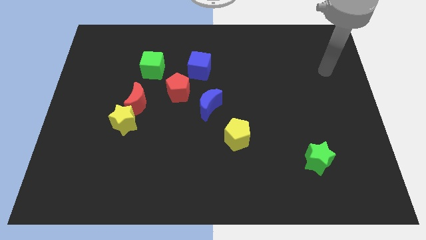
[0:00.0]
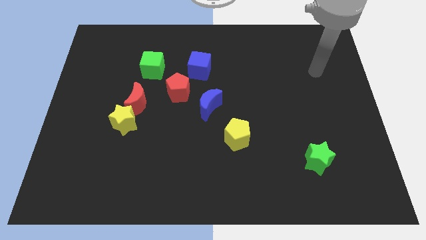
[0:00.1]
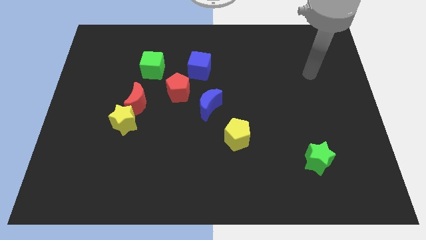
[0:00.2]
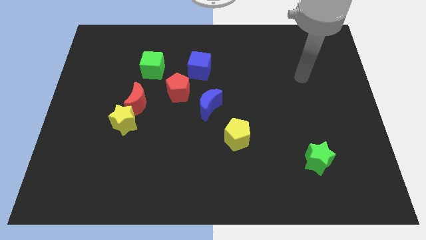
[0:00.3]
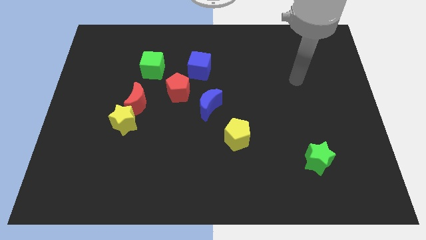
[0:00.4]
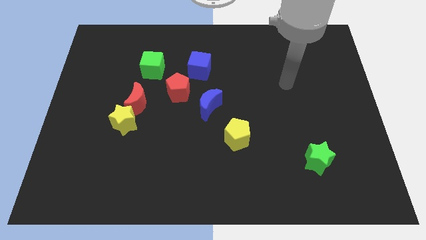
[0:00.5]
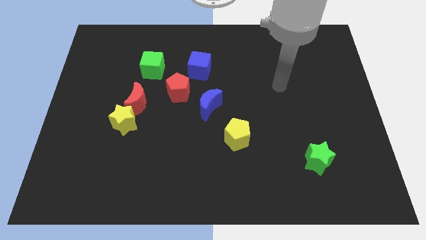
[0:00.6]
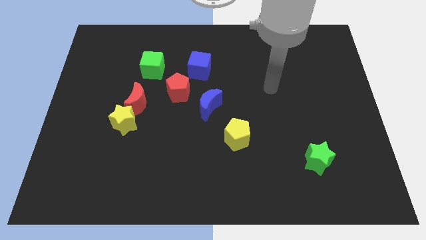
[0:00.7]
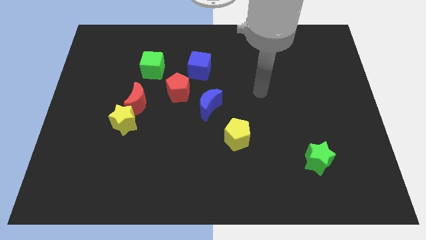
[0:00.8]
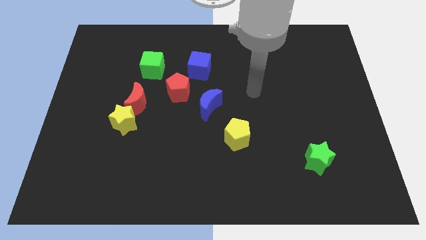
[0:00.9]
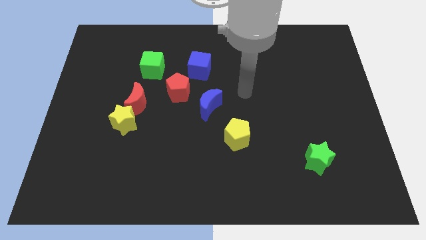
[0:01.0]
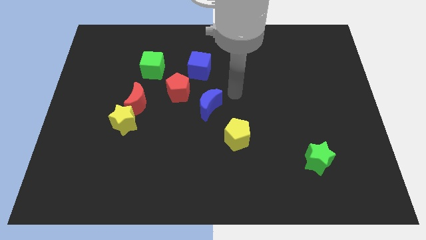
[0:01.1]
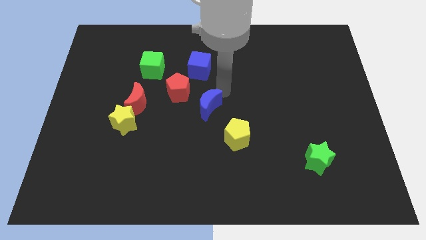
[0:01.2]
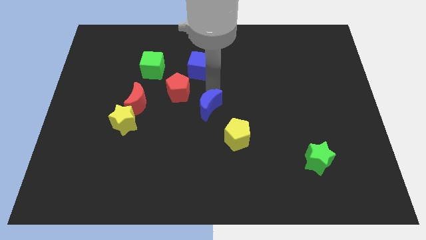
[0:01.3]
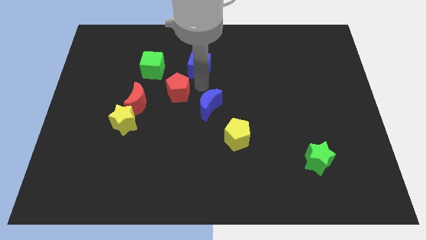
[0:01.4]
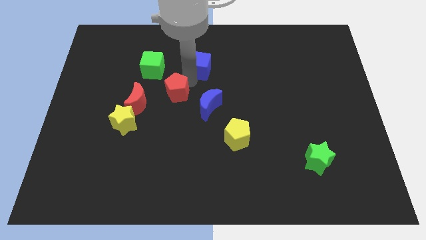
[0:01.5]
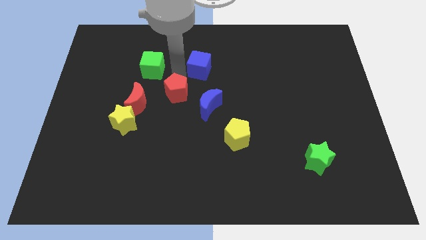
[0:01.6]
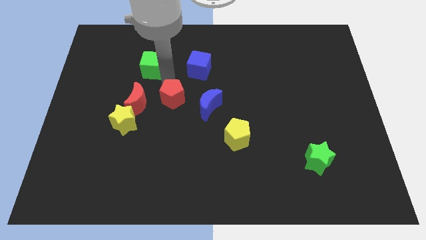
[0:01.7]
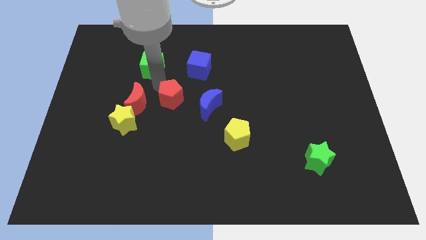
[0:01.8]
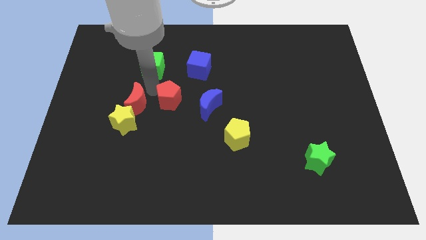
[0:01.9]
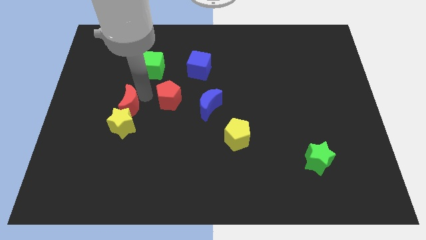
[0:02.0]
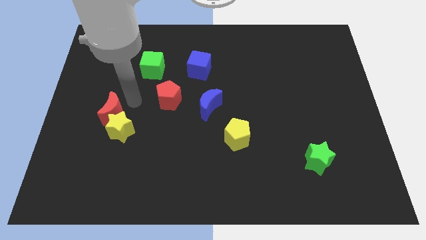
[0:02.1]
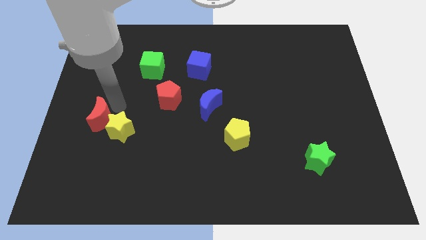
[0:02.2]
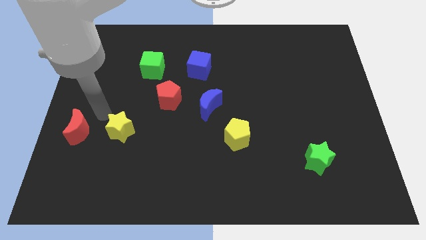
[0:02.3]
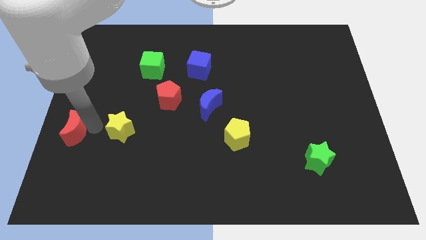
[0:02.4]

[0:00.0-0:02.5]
move the yellow star away from the red moon

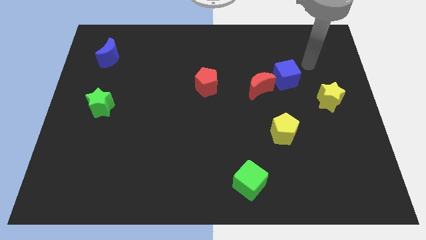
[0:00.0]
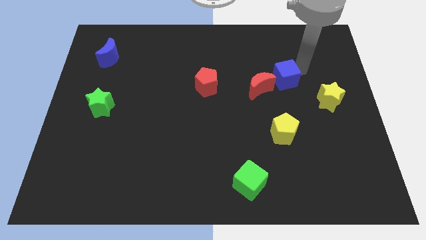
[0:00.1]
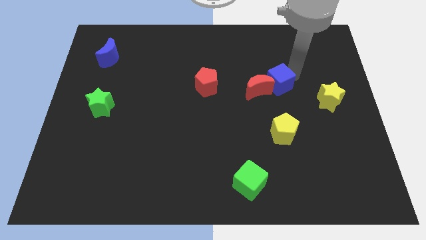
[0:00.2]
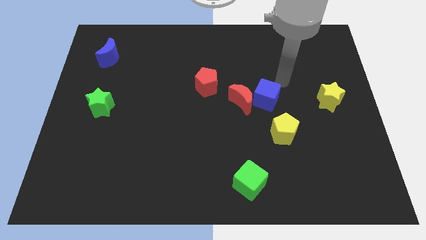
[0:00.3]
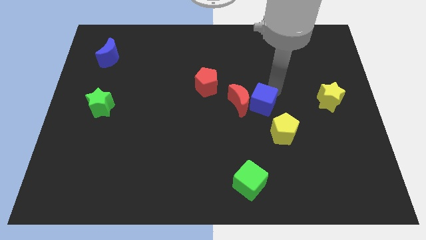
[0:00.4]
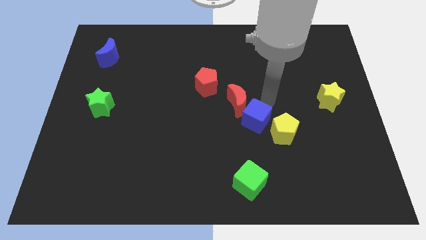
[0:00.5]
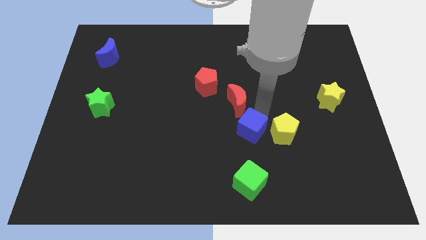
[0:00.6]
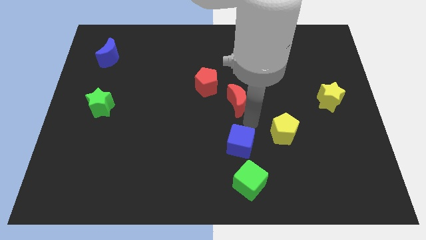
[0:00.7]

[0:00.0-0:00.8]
separate the red moon from the blue cube

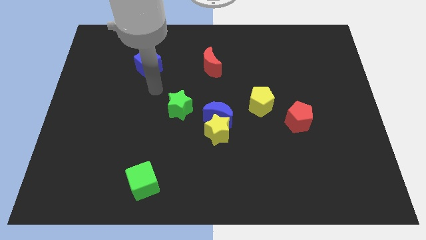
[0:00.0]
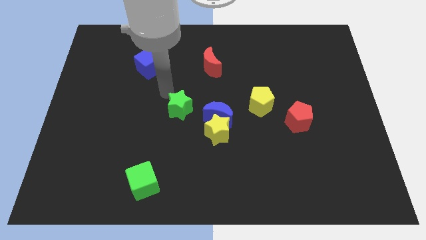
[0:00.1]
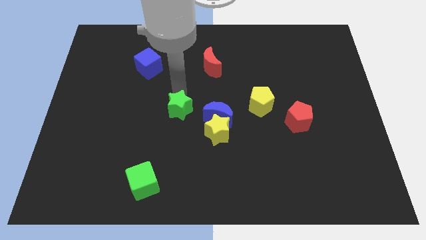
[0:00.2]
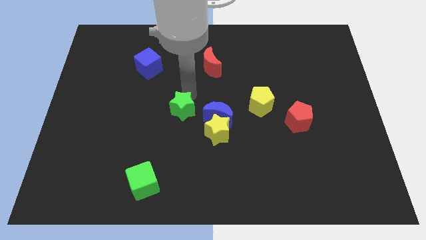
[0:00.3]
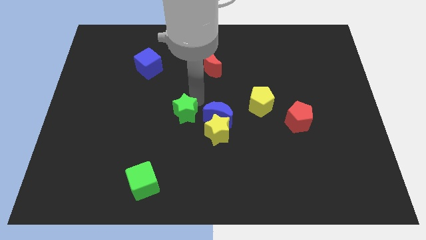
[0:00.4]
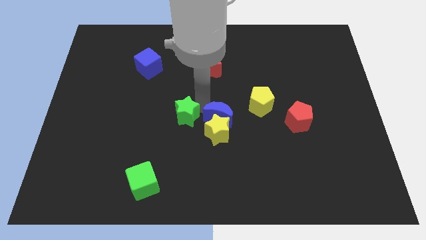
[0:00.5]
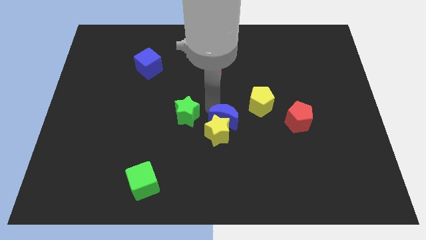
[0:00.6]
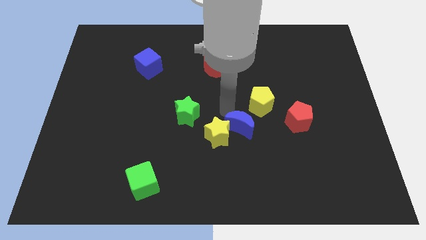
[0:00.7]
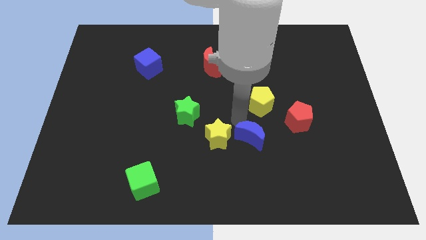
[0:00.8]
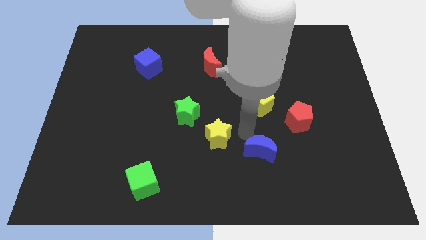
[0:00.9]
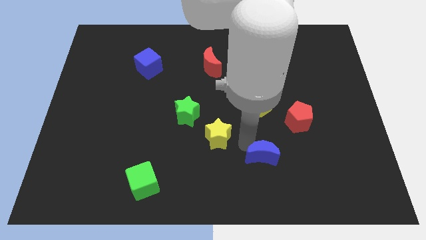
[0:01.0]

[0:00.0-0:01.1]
move the yellow star away from the blue moon

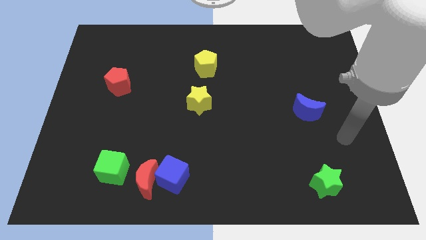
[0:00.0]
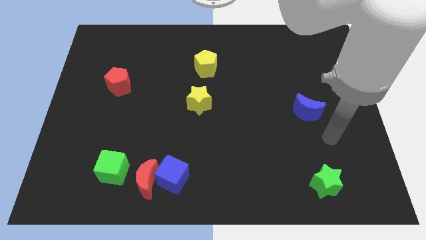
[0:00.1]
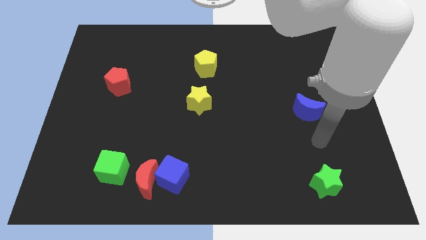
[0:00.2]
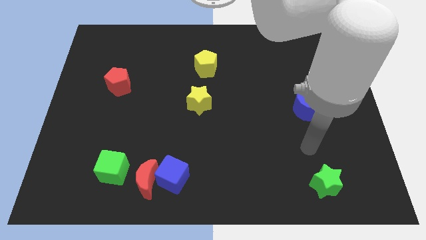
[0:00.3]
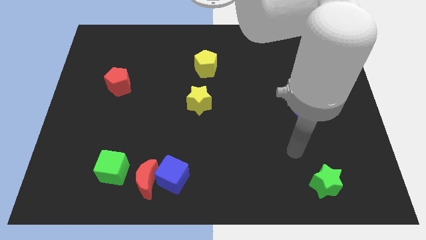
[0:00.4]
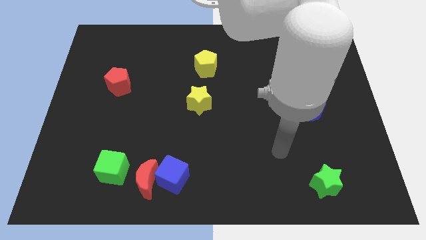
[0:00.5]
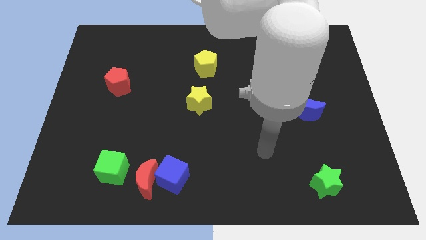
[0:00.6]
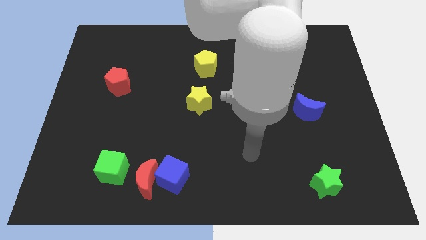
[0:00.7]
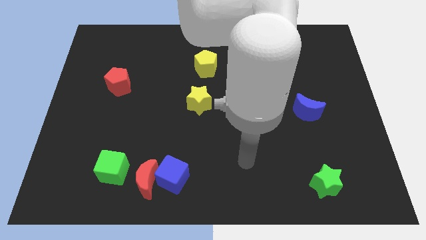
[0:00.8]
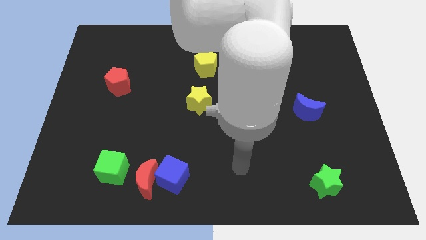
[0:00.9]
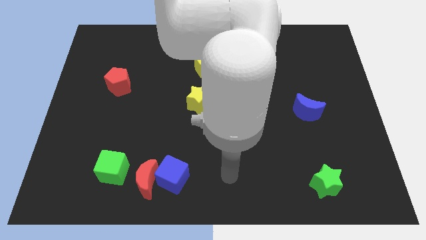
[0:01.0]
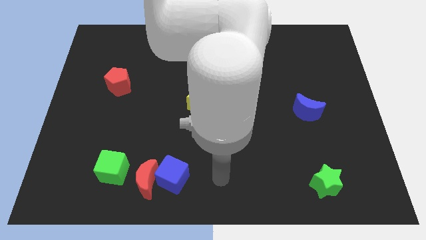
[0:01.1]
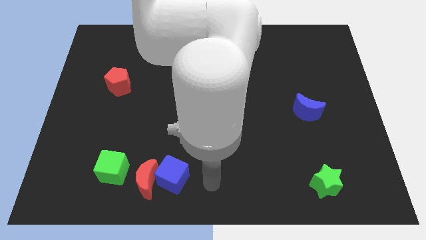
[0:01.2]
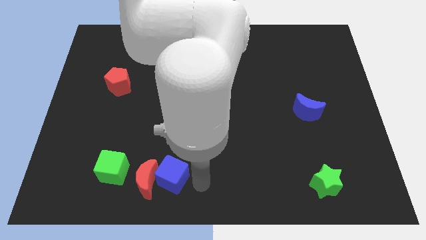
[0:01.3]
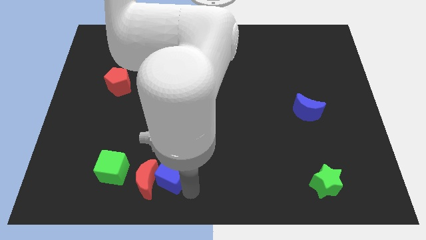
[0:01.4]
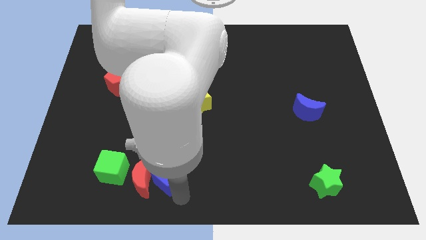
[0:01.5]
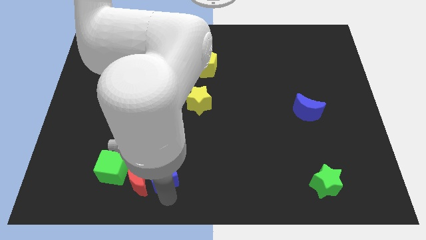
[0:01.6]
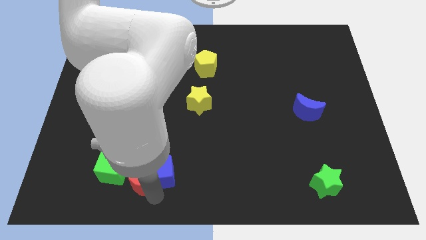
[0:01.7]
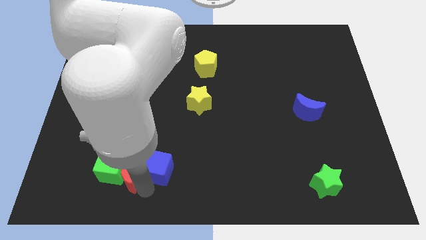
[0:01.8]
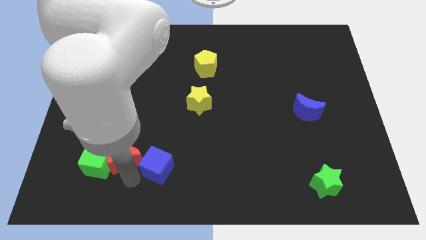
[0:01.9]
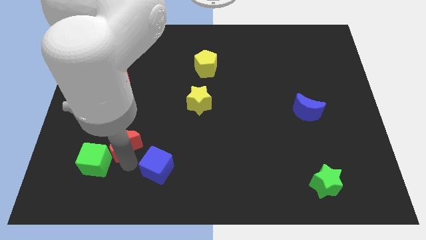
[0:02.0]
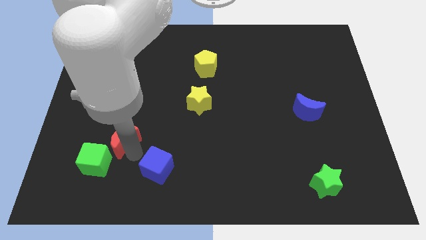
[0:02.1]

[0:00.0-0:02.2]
pull the blue cube apart from the red moon

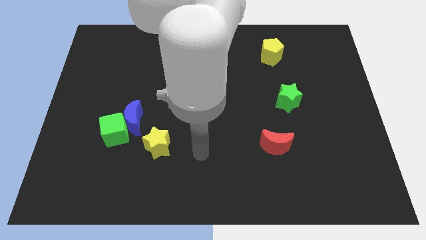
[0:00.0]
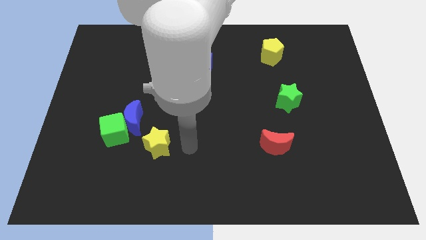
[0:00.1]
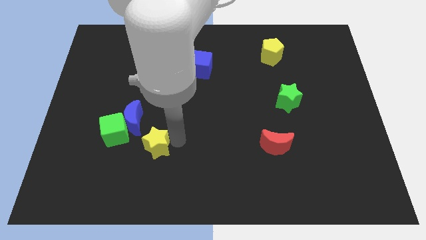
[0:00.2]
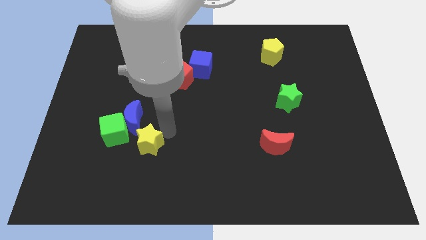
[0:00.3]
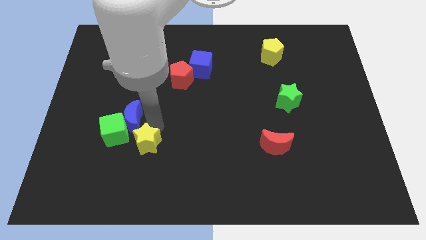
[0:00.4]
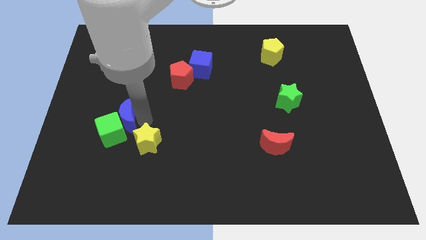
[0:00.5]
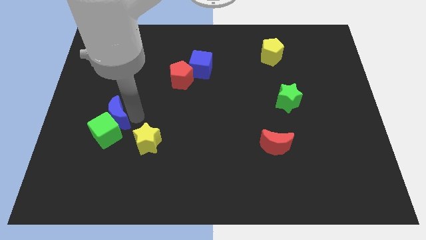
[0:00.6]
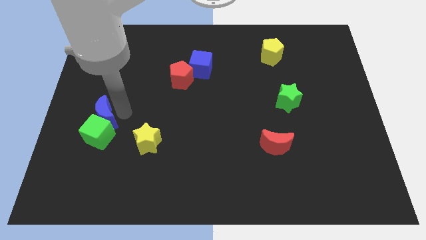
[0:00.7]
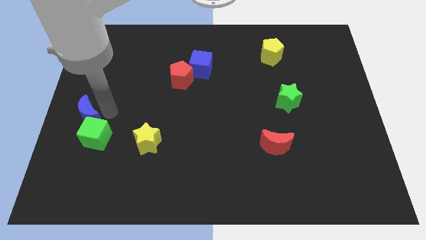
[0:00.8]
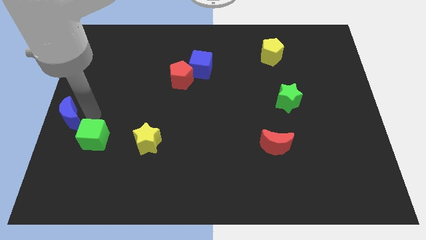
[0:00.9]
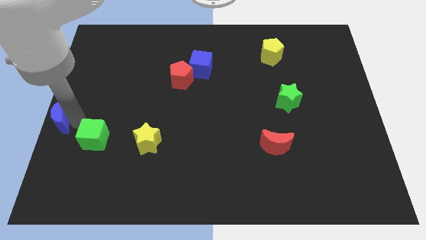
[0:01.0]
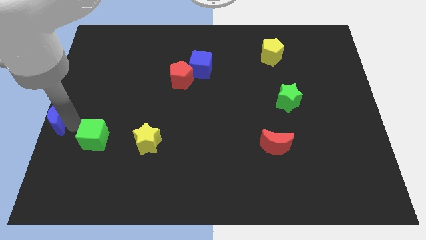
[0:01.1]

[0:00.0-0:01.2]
separate the green cube from the blue moon

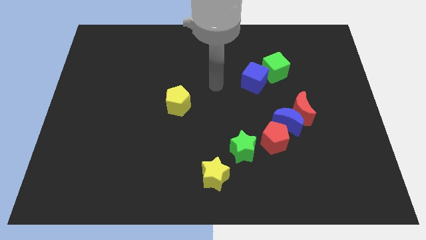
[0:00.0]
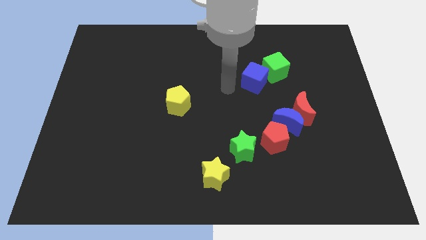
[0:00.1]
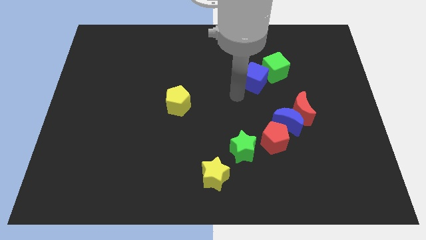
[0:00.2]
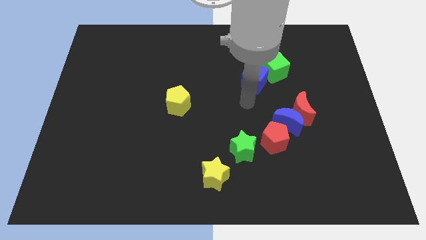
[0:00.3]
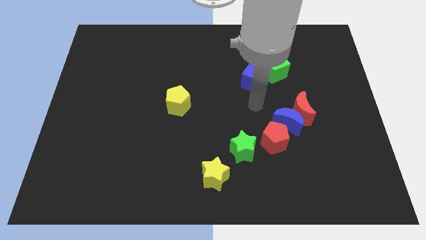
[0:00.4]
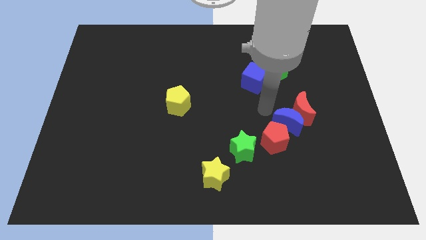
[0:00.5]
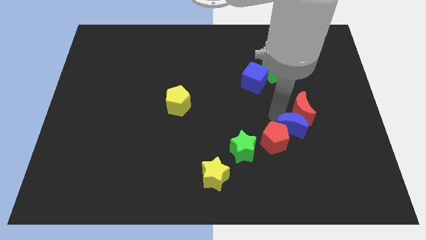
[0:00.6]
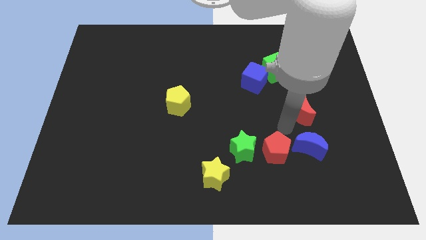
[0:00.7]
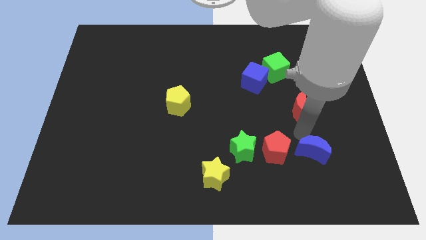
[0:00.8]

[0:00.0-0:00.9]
separate the red moon from the blue moon

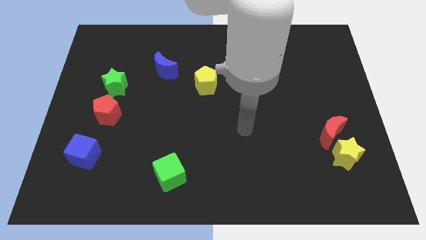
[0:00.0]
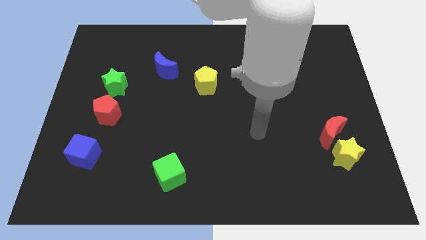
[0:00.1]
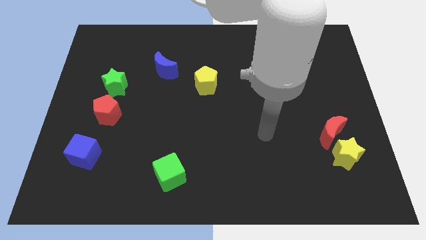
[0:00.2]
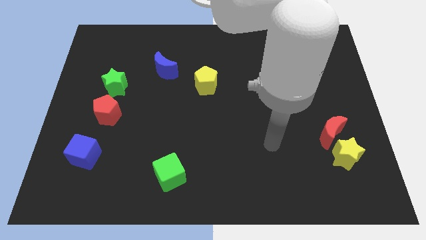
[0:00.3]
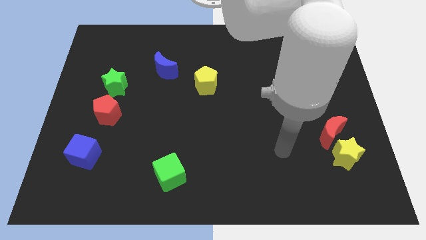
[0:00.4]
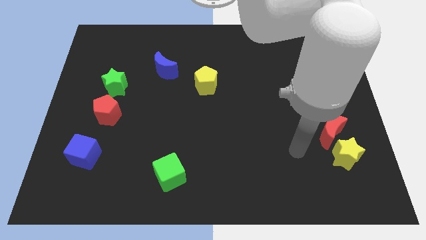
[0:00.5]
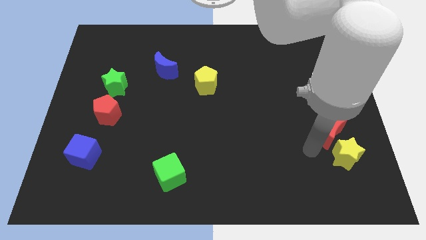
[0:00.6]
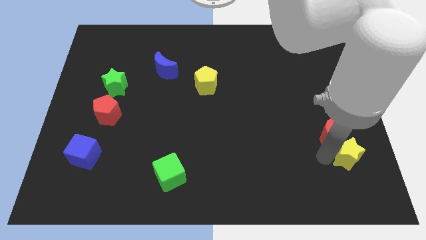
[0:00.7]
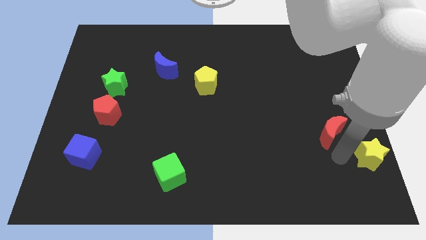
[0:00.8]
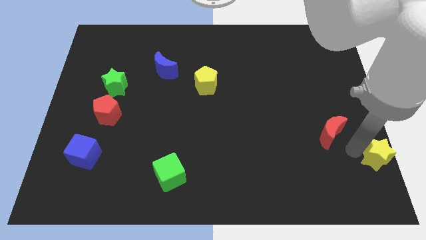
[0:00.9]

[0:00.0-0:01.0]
move the red moon away from the yellow star
